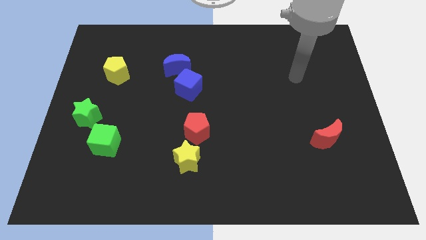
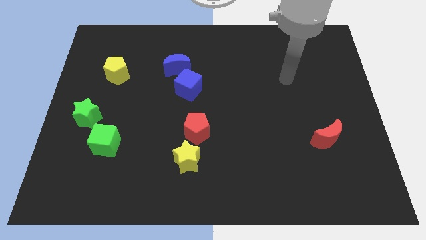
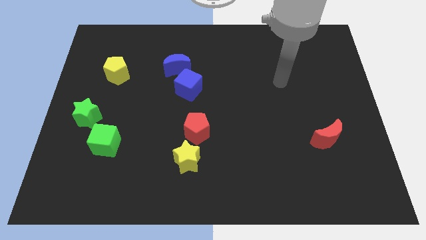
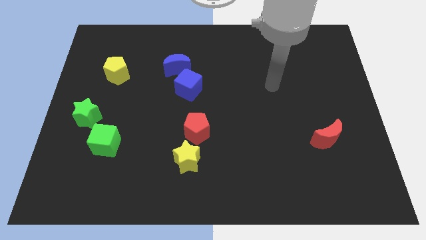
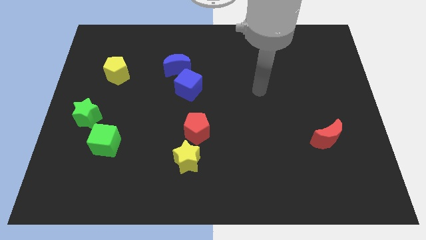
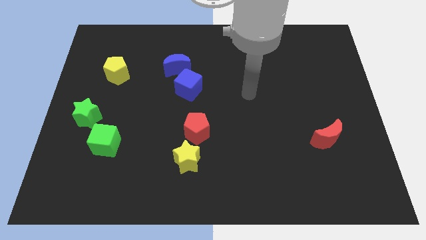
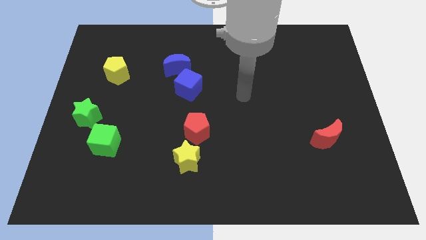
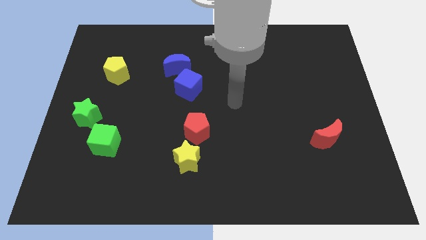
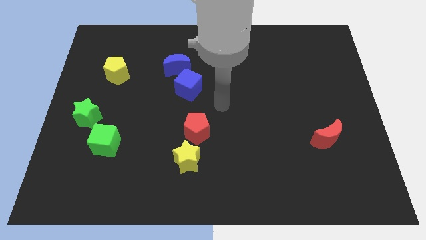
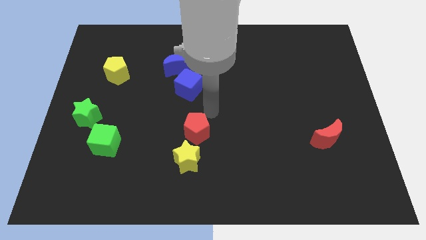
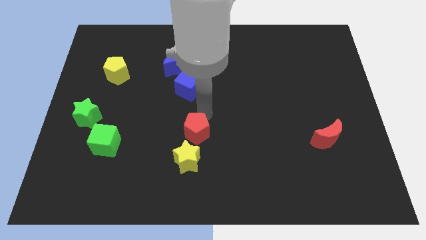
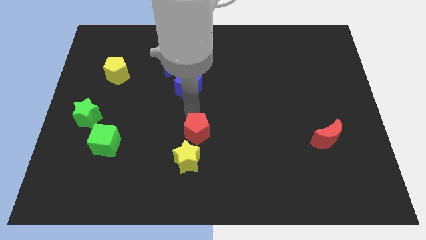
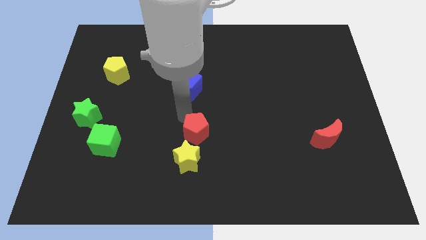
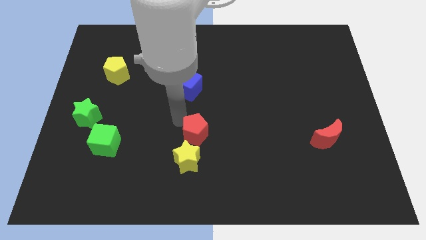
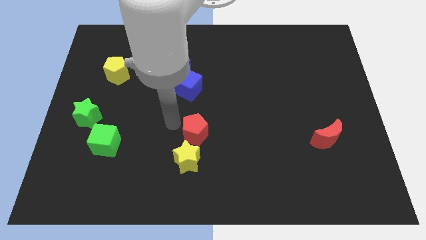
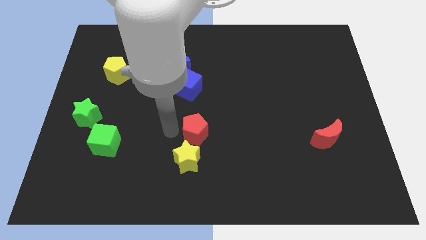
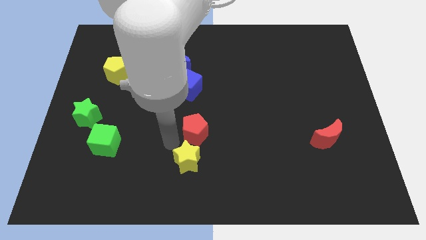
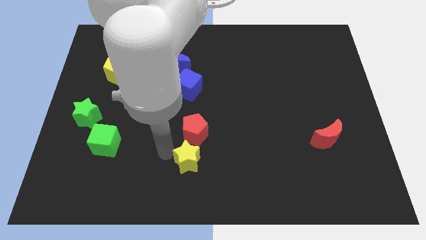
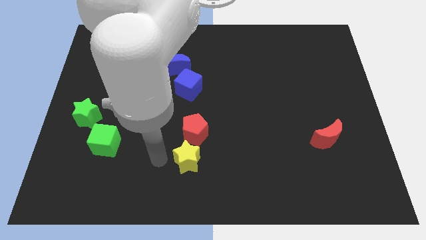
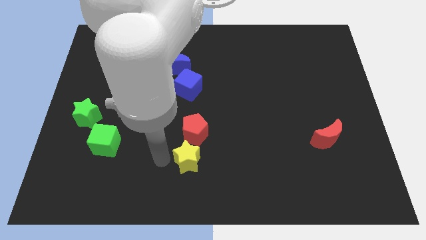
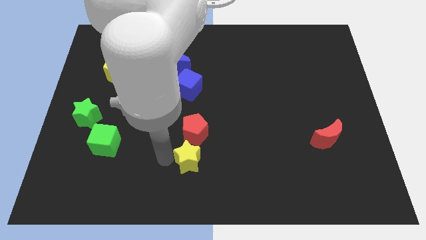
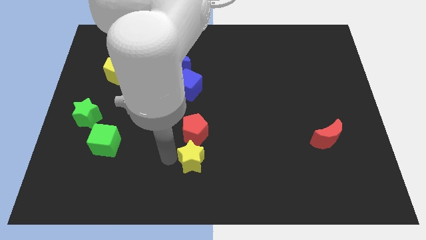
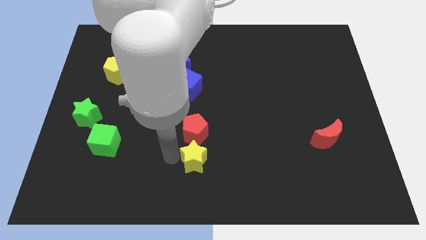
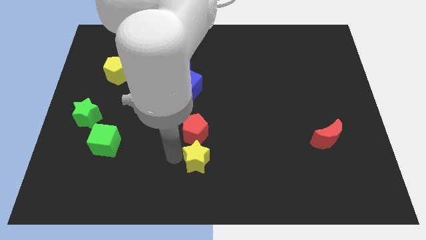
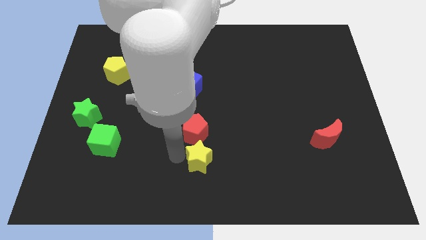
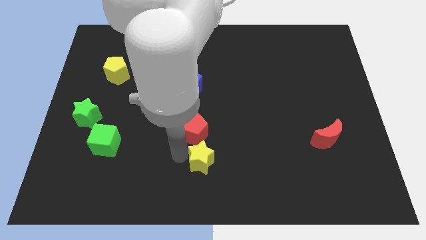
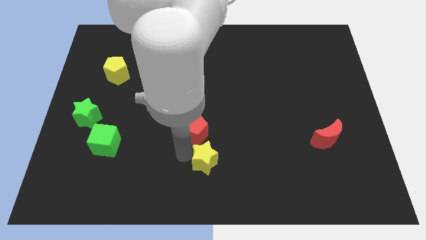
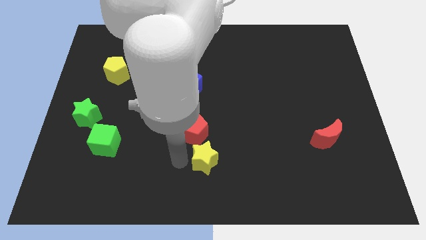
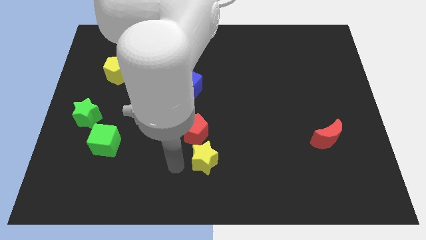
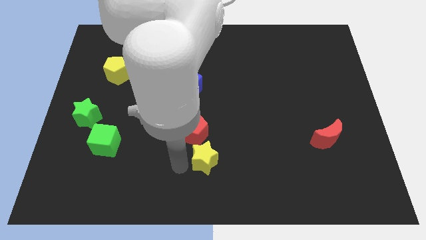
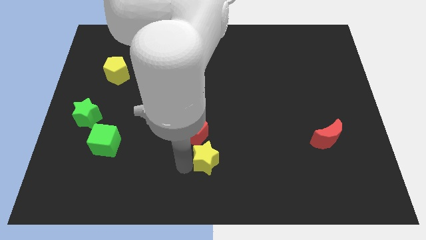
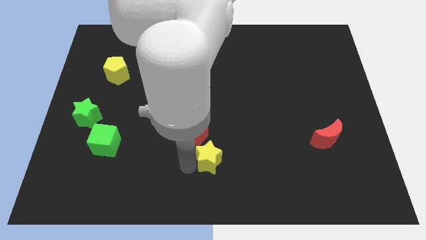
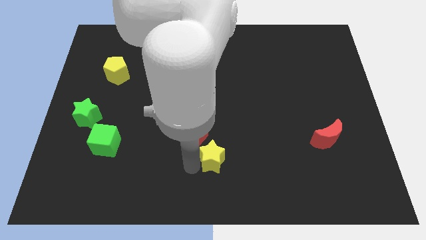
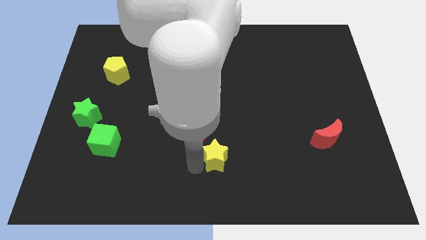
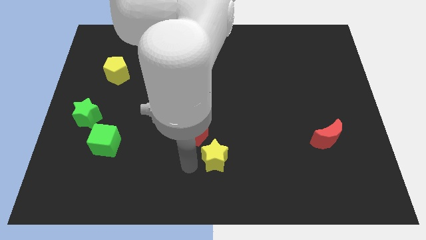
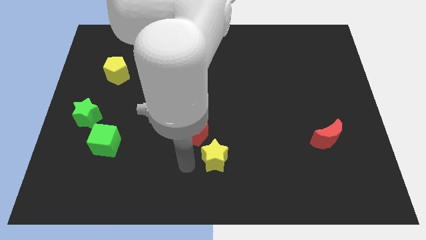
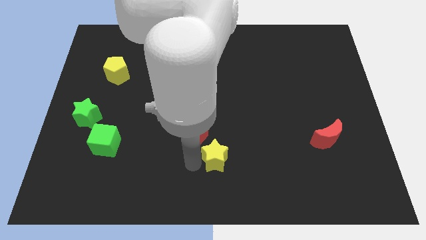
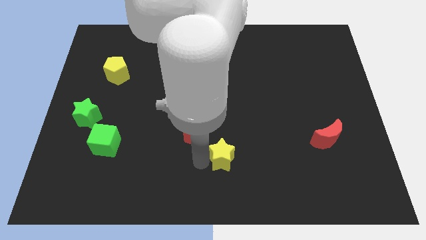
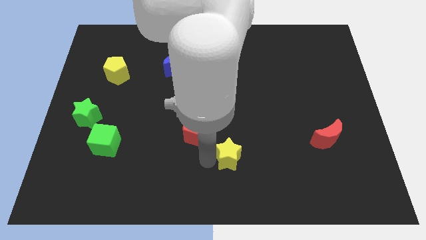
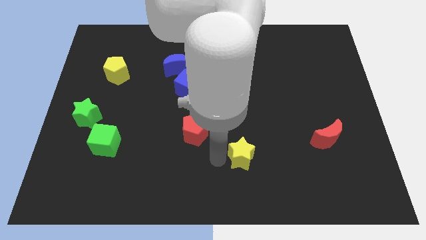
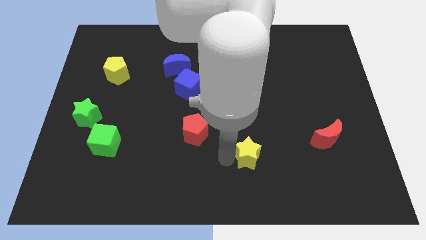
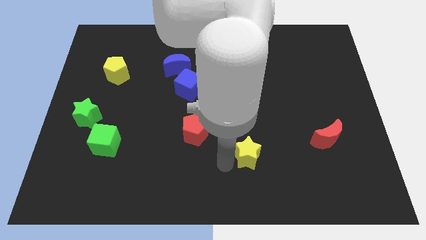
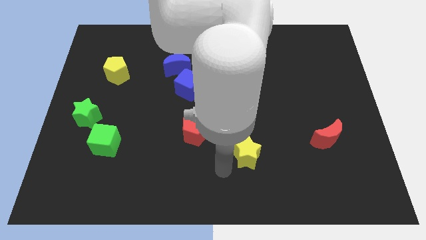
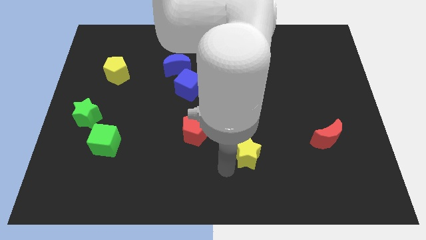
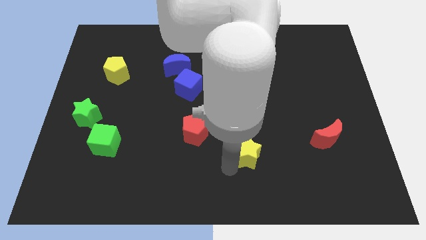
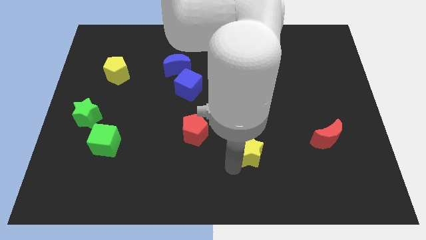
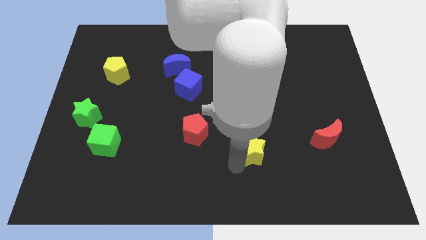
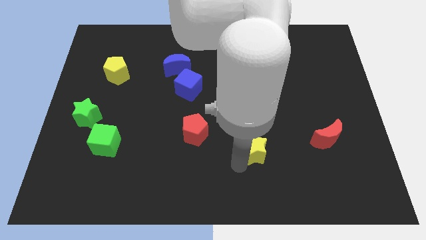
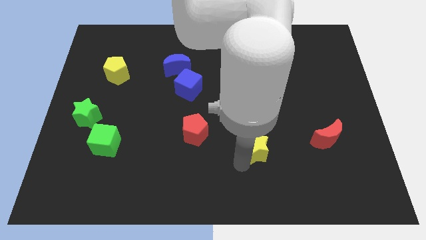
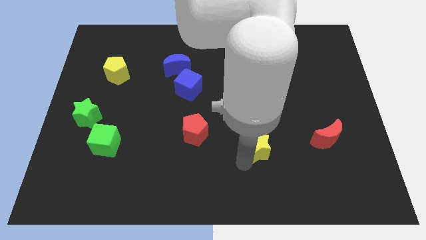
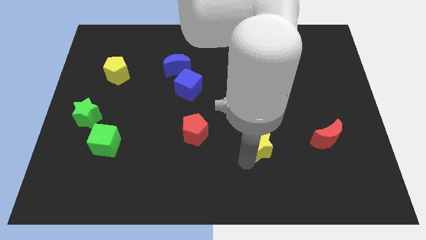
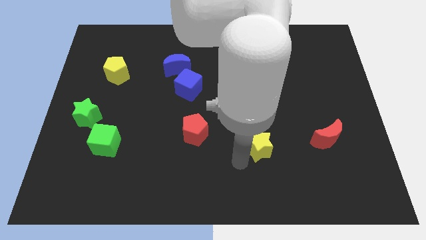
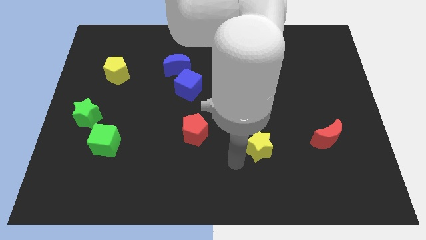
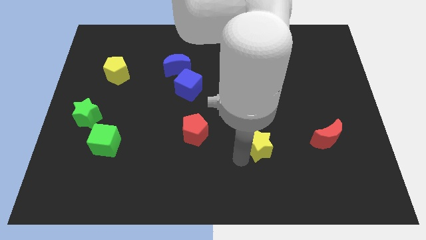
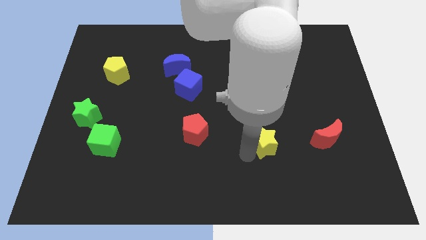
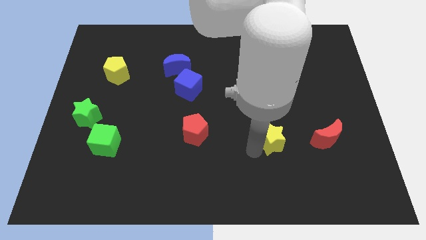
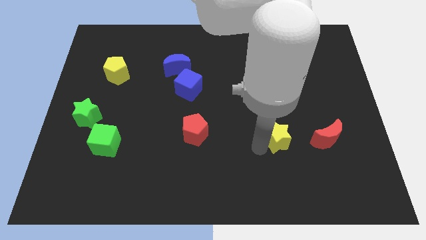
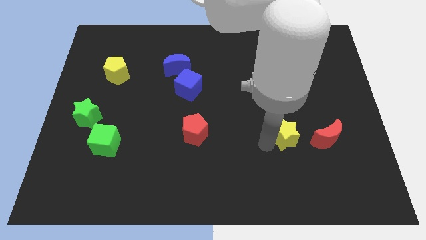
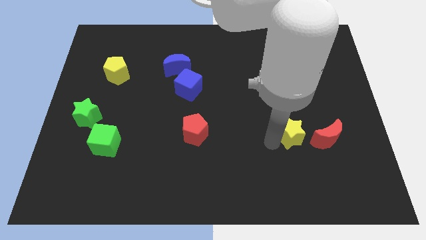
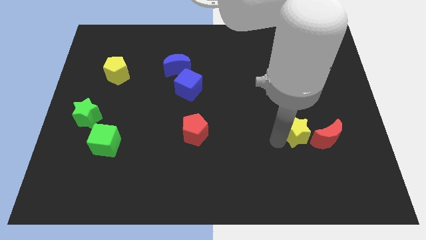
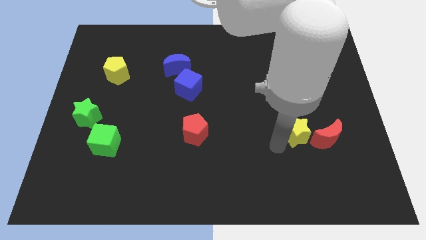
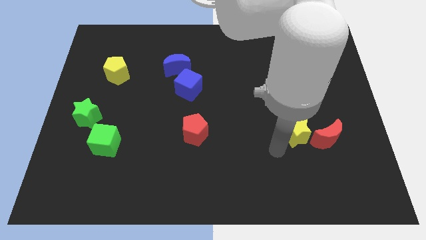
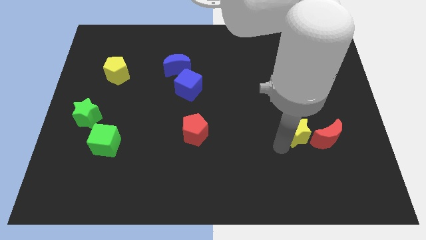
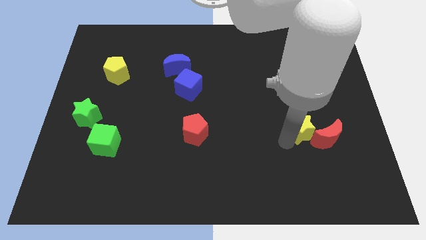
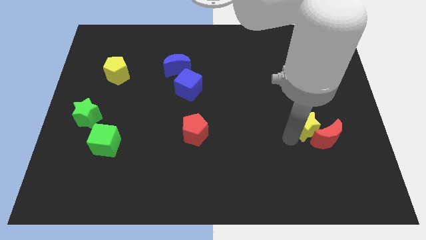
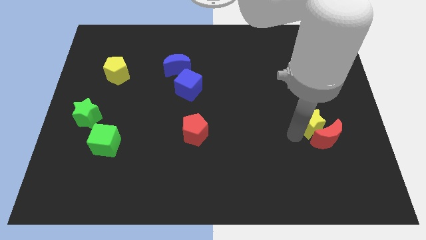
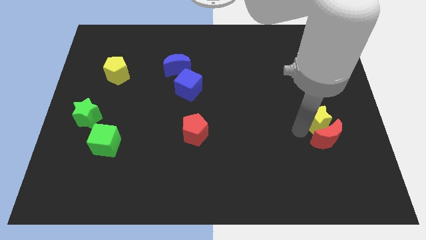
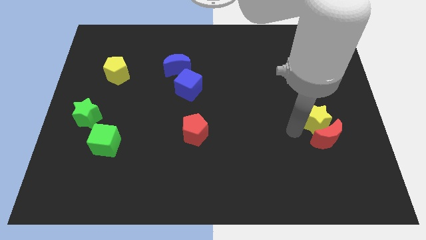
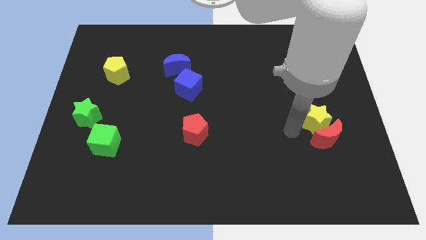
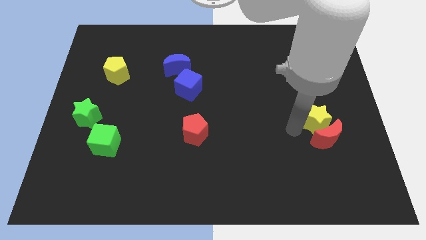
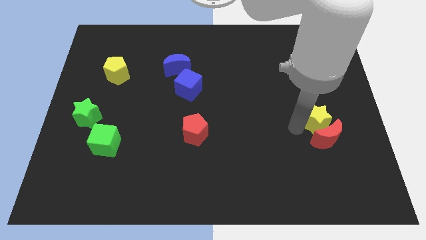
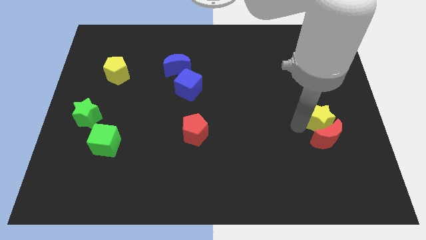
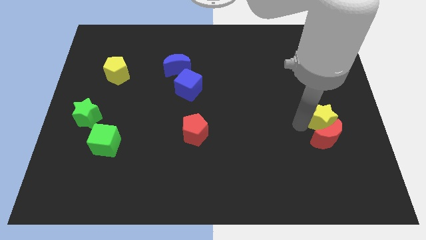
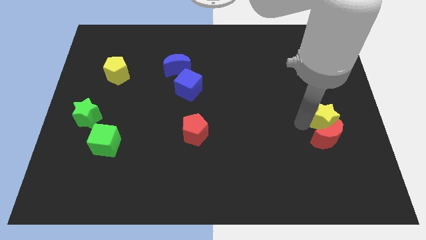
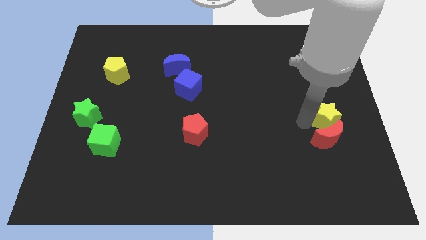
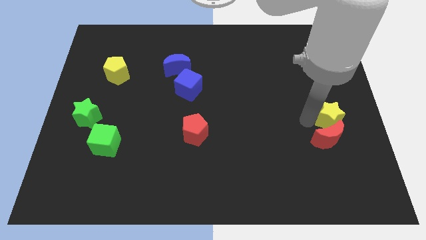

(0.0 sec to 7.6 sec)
push the yellow star to the right side of the board
